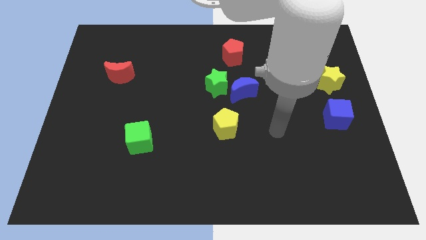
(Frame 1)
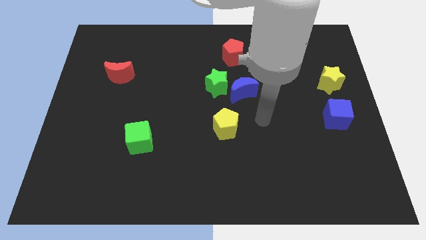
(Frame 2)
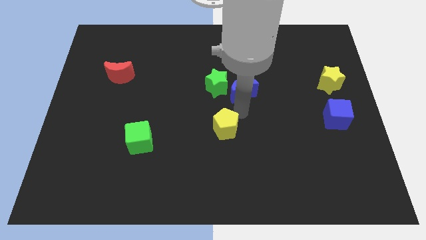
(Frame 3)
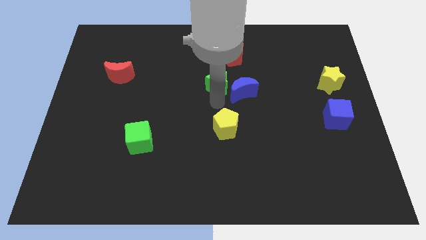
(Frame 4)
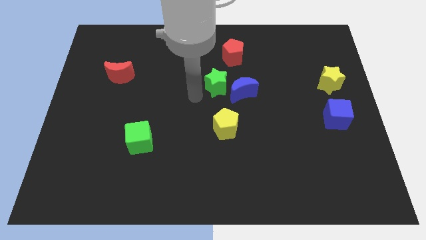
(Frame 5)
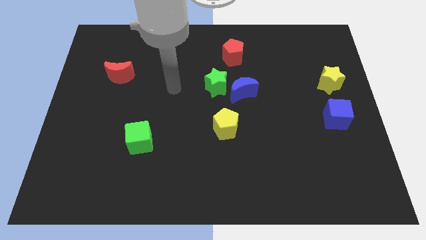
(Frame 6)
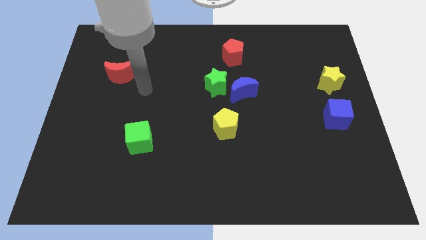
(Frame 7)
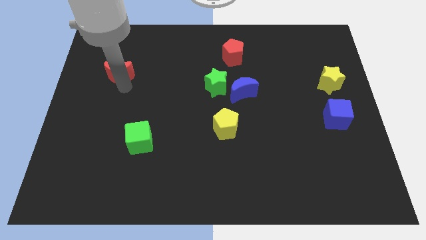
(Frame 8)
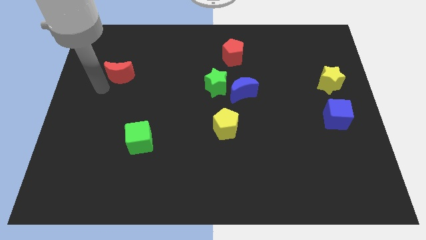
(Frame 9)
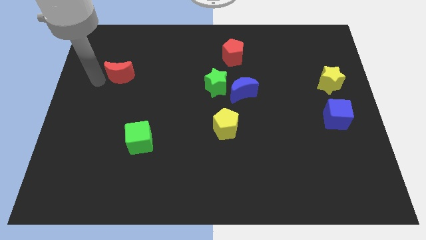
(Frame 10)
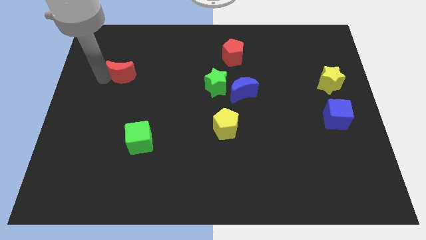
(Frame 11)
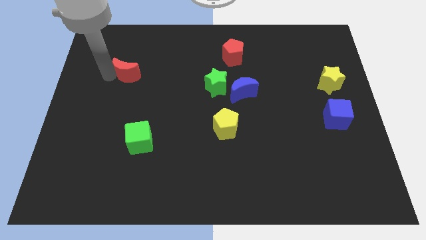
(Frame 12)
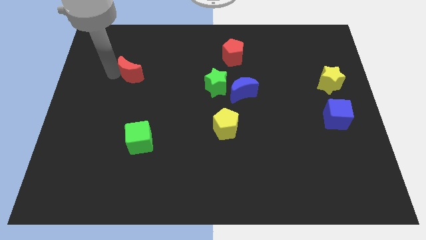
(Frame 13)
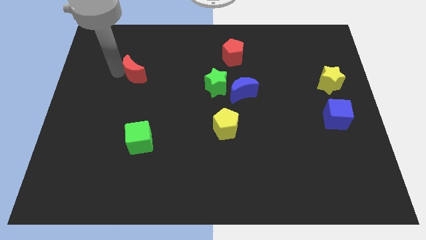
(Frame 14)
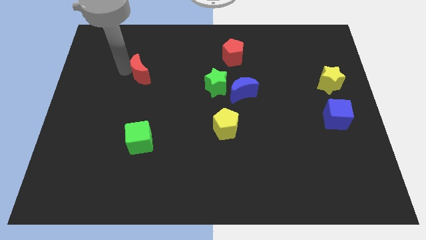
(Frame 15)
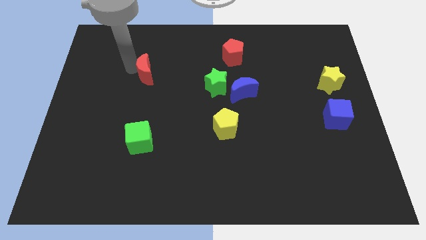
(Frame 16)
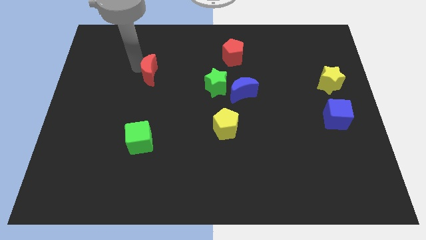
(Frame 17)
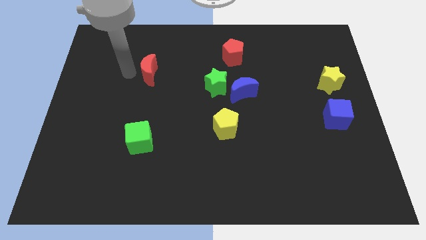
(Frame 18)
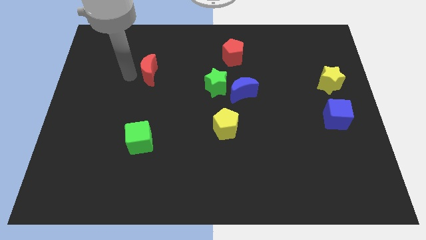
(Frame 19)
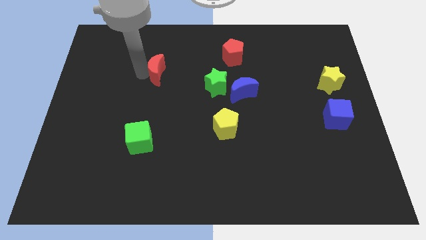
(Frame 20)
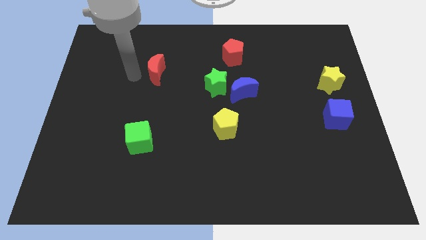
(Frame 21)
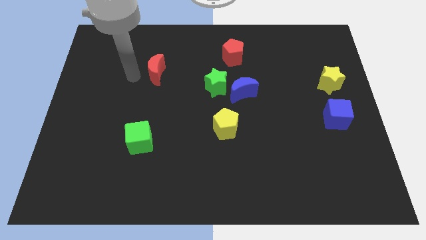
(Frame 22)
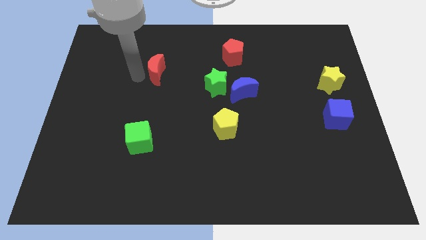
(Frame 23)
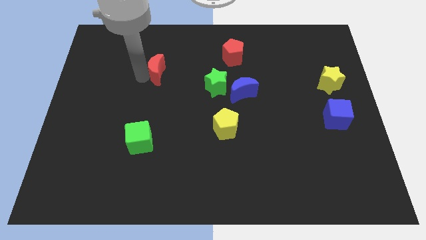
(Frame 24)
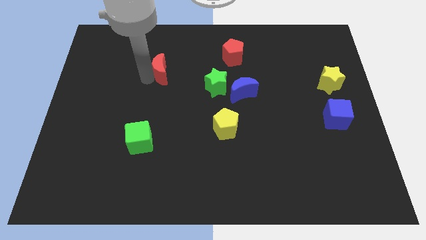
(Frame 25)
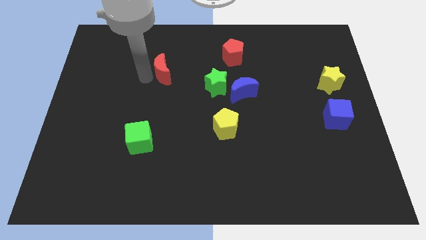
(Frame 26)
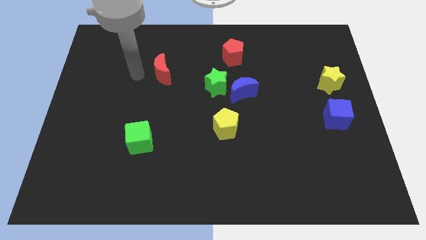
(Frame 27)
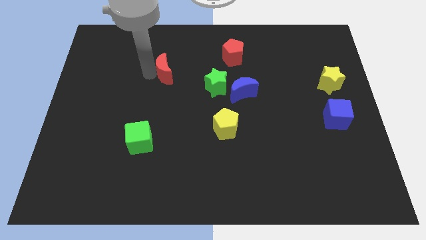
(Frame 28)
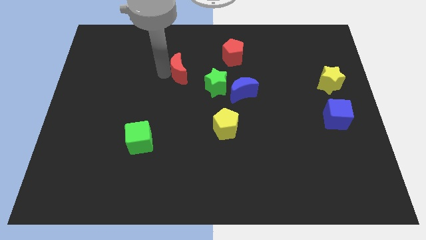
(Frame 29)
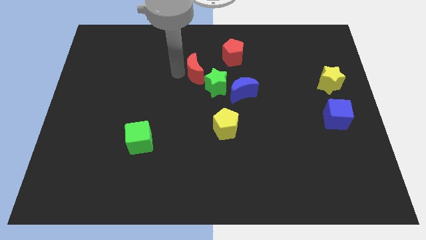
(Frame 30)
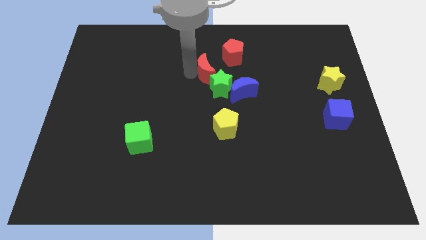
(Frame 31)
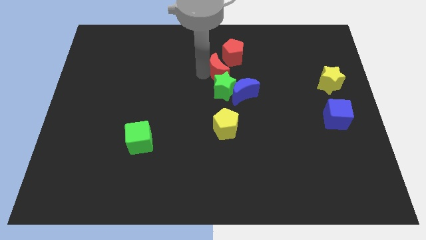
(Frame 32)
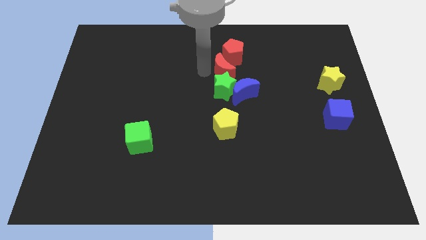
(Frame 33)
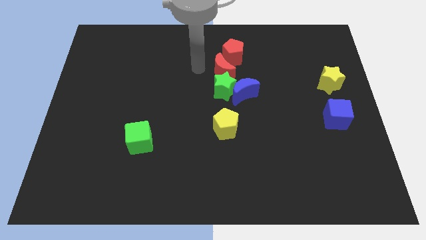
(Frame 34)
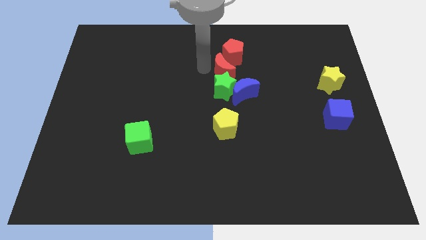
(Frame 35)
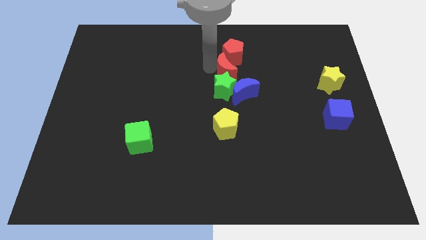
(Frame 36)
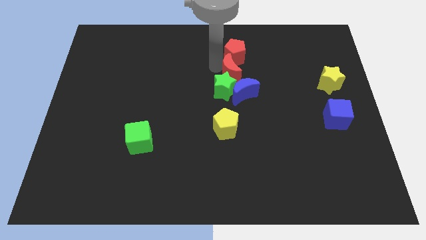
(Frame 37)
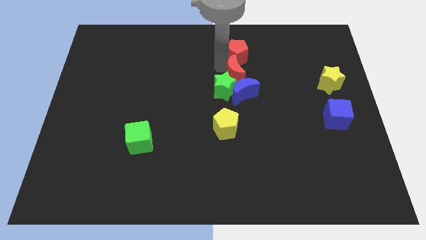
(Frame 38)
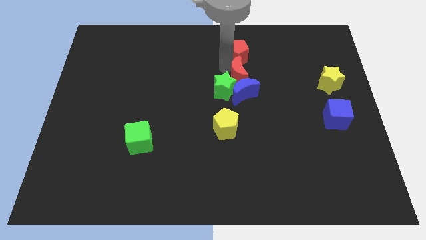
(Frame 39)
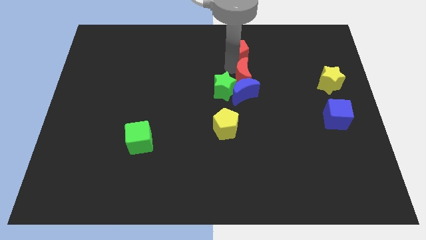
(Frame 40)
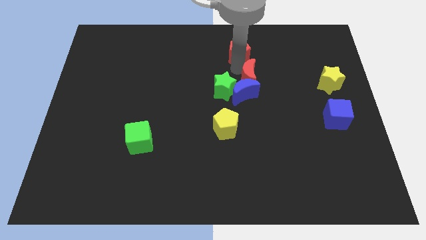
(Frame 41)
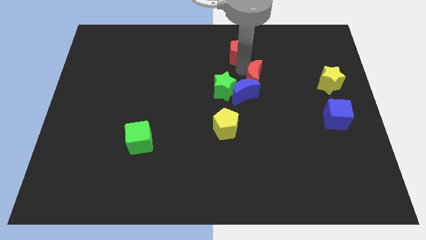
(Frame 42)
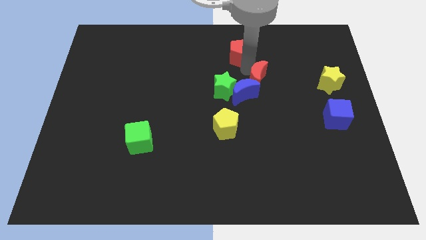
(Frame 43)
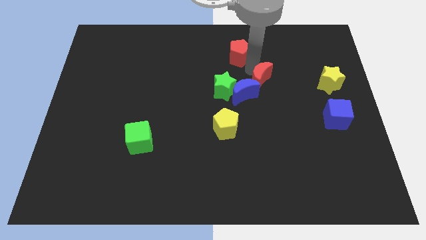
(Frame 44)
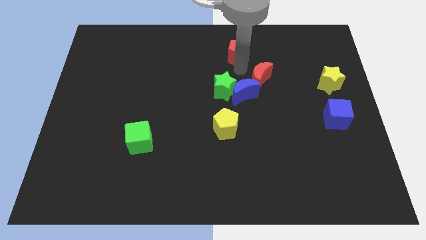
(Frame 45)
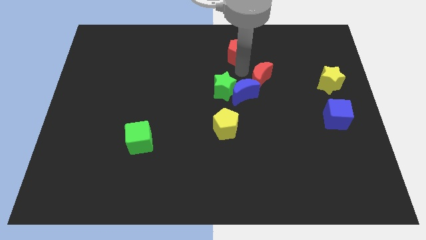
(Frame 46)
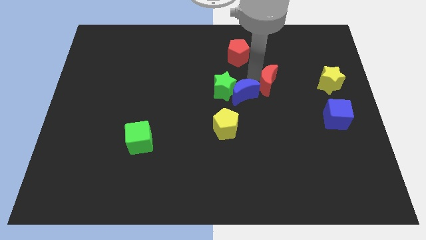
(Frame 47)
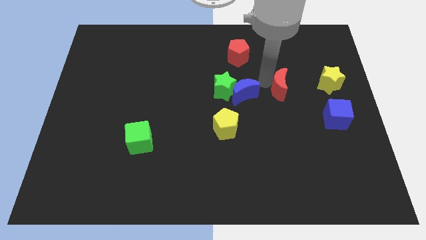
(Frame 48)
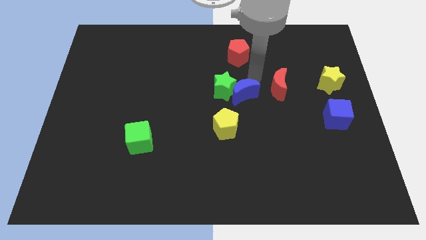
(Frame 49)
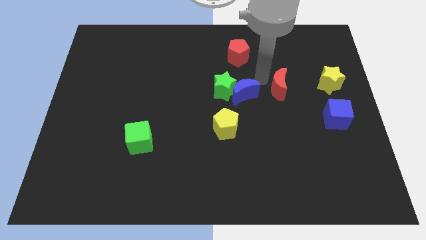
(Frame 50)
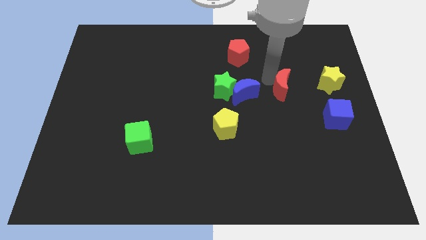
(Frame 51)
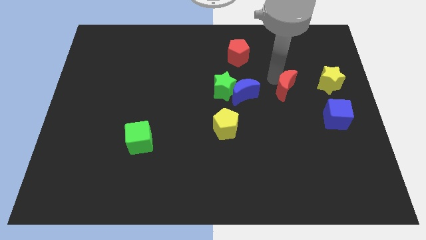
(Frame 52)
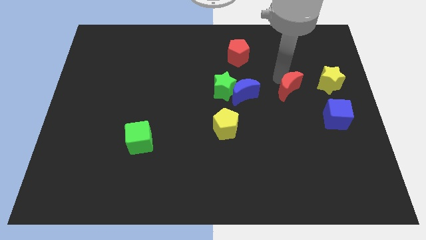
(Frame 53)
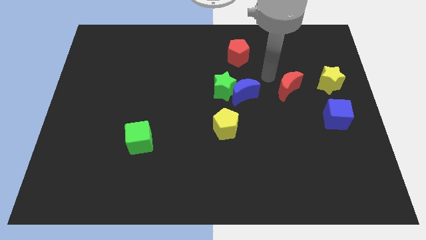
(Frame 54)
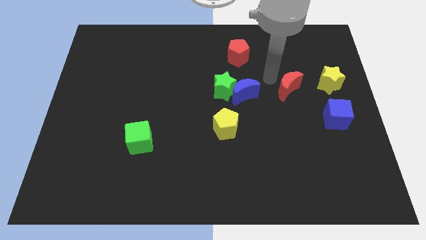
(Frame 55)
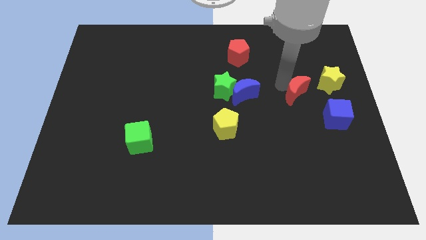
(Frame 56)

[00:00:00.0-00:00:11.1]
slide the red moon to the top left side of the blue cube

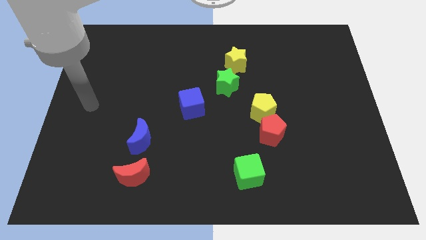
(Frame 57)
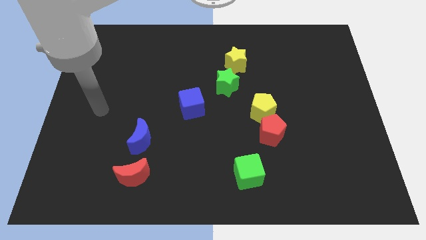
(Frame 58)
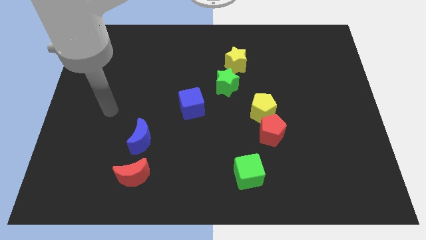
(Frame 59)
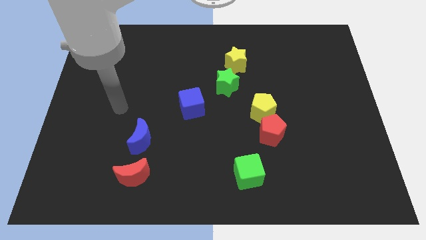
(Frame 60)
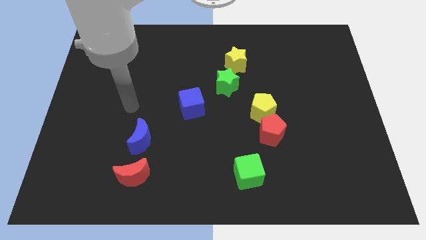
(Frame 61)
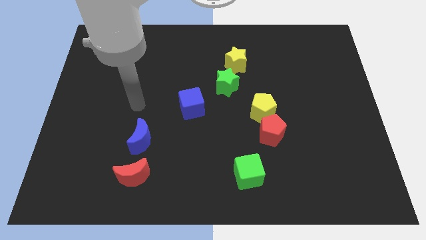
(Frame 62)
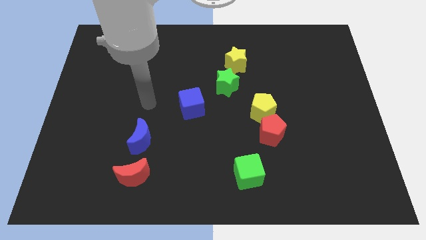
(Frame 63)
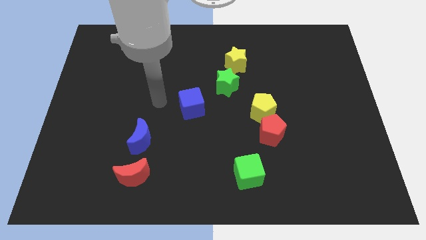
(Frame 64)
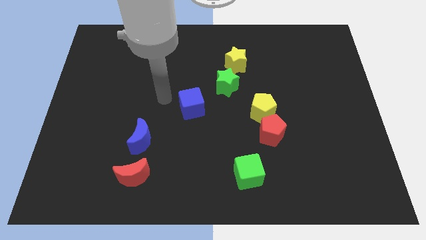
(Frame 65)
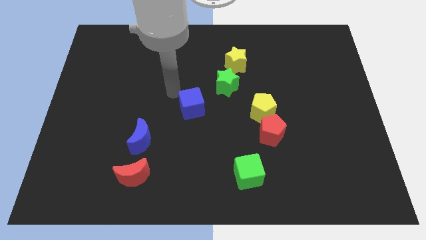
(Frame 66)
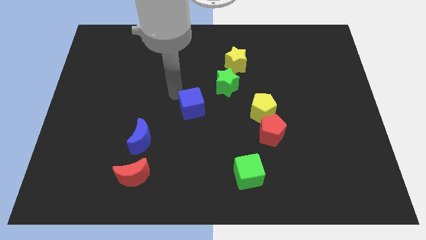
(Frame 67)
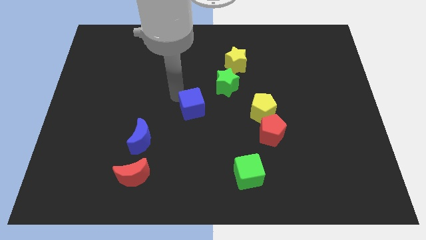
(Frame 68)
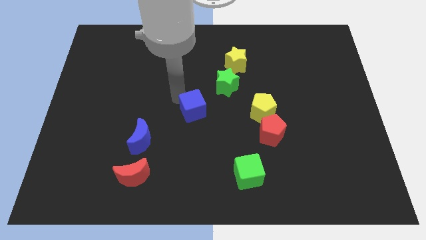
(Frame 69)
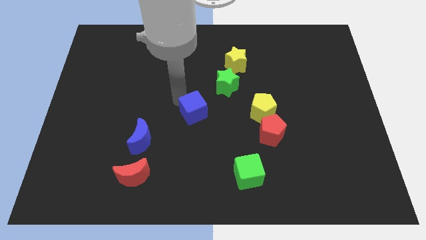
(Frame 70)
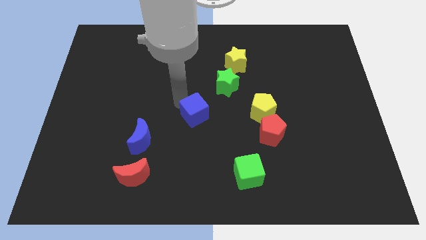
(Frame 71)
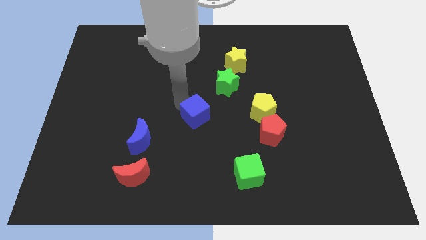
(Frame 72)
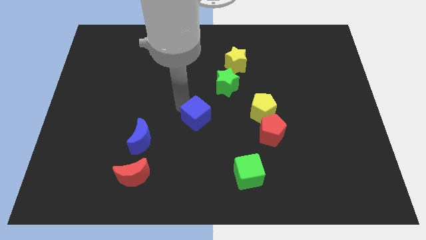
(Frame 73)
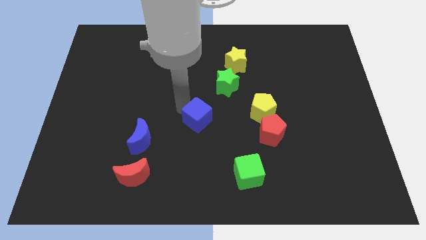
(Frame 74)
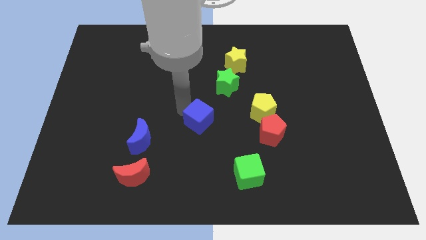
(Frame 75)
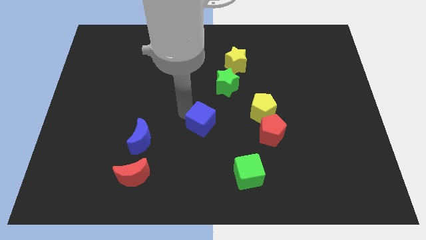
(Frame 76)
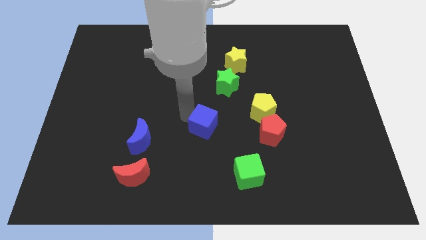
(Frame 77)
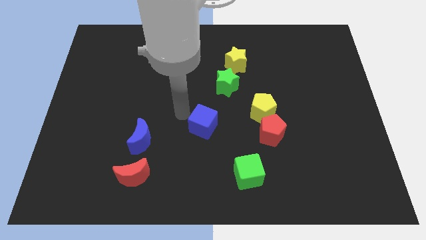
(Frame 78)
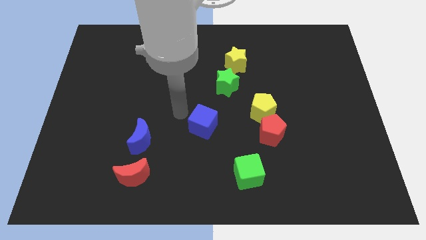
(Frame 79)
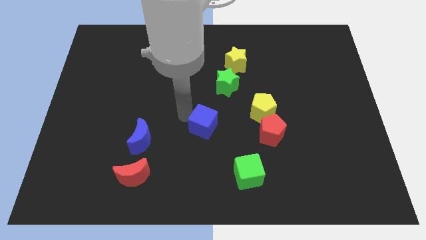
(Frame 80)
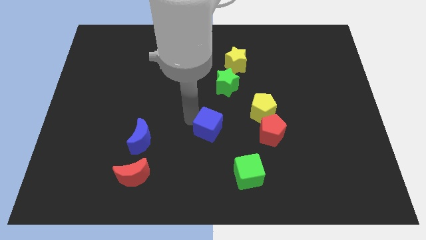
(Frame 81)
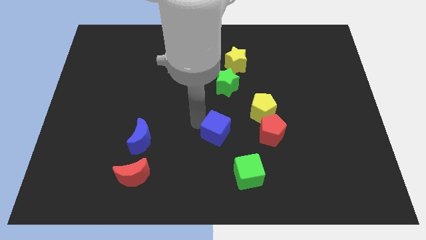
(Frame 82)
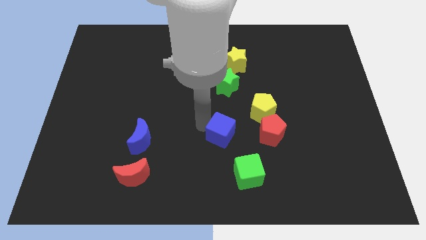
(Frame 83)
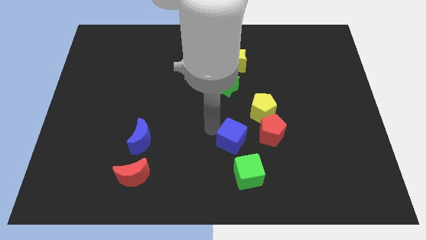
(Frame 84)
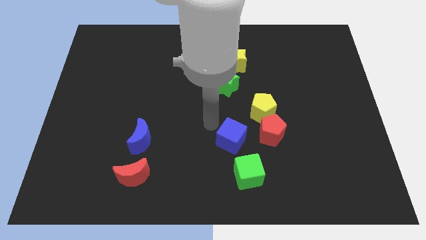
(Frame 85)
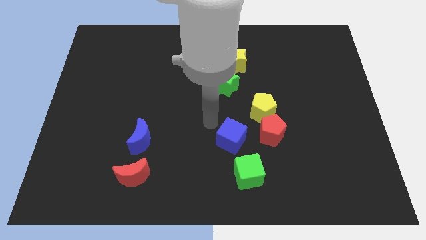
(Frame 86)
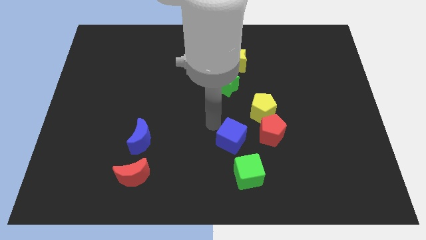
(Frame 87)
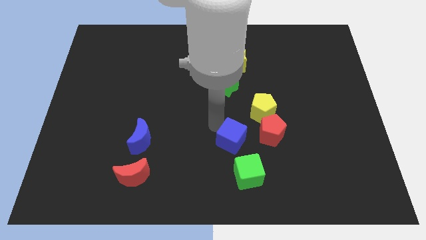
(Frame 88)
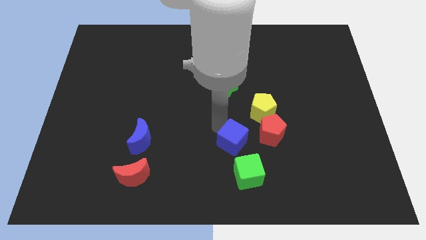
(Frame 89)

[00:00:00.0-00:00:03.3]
move the blue cube to the bottom left side of the red pentagon
